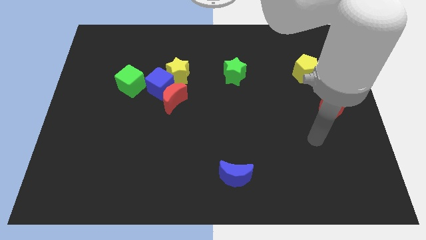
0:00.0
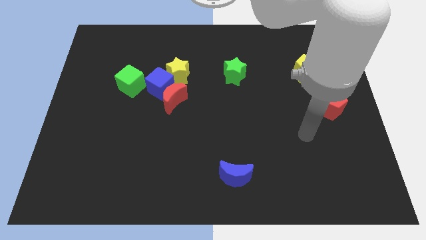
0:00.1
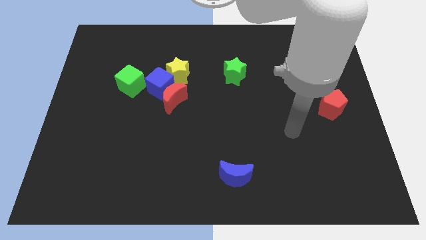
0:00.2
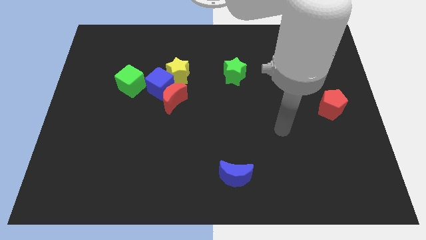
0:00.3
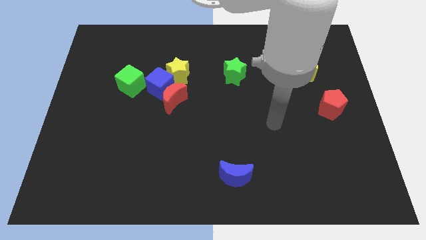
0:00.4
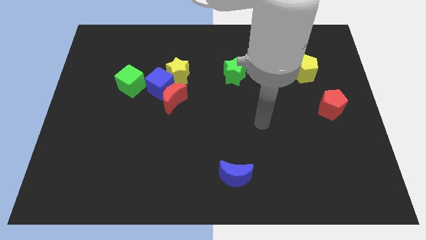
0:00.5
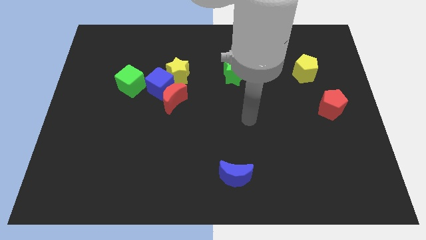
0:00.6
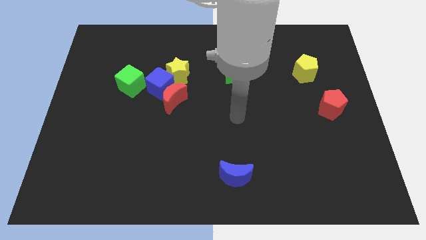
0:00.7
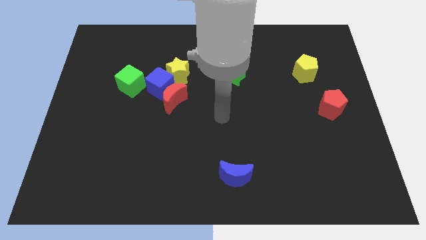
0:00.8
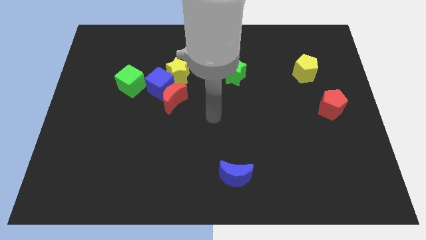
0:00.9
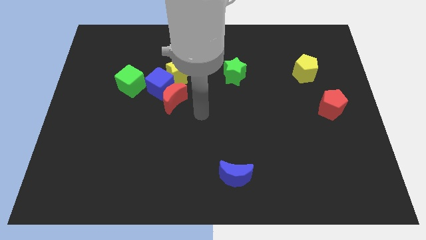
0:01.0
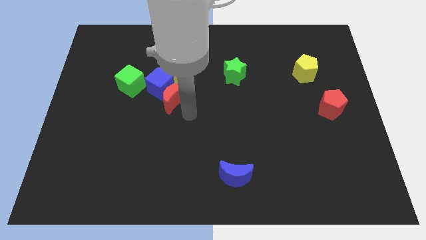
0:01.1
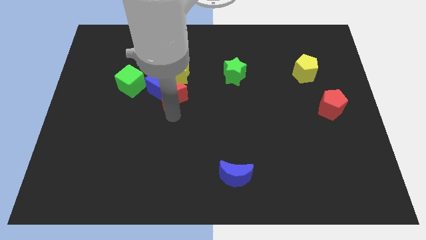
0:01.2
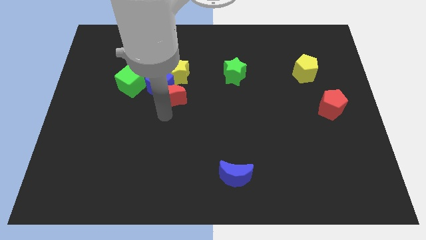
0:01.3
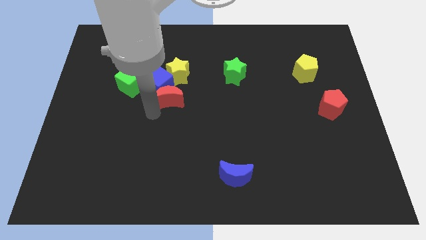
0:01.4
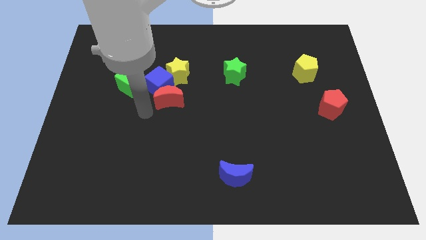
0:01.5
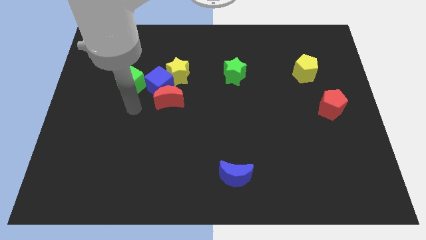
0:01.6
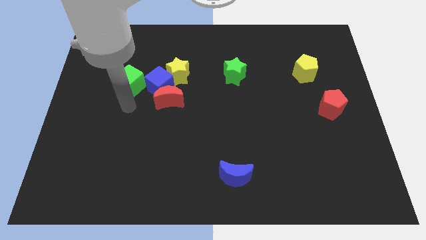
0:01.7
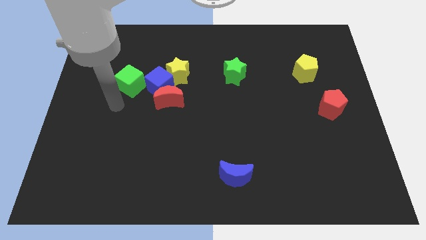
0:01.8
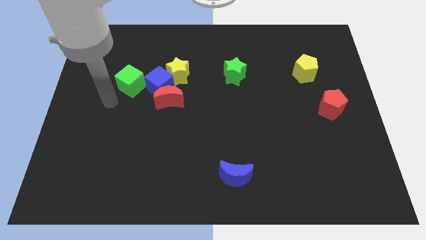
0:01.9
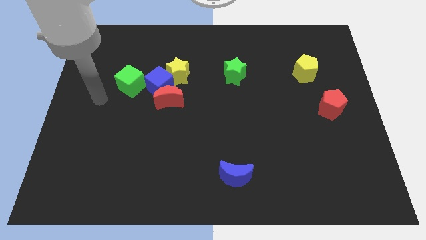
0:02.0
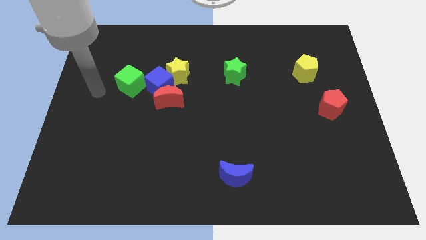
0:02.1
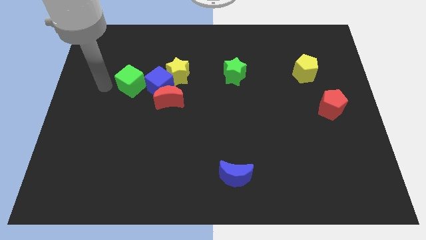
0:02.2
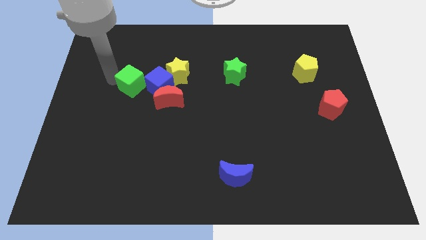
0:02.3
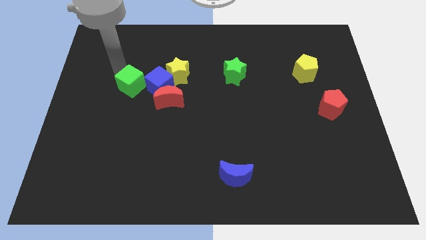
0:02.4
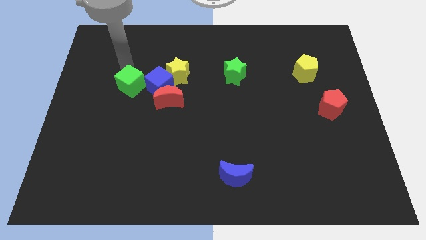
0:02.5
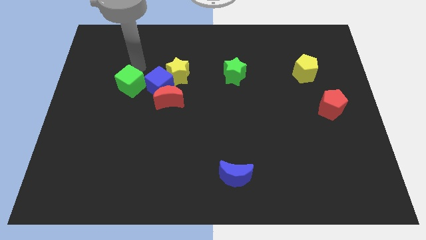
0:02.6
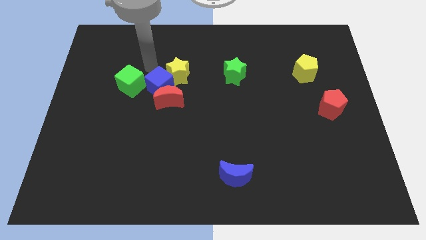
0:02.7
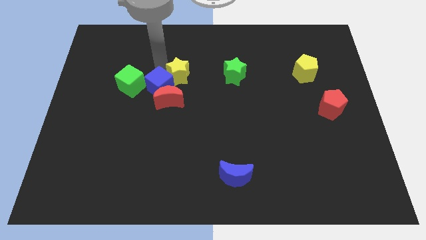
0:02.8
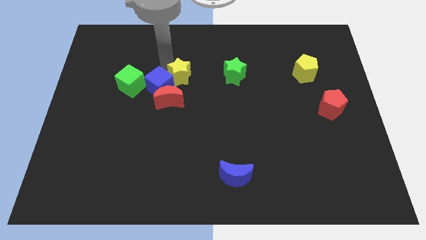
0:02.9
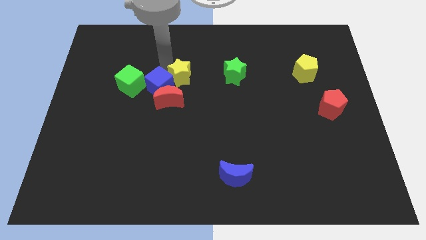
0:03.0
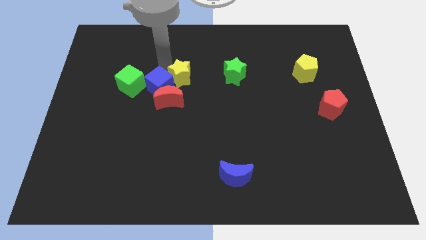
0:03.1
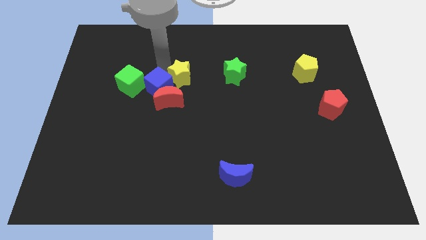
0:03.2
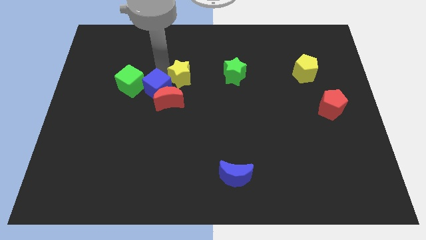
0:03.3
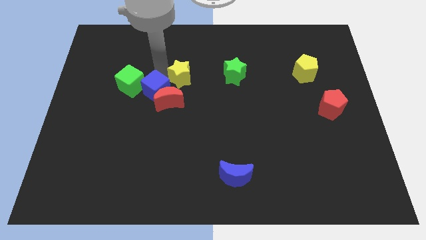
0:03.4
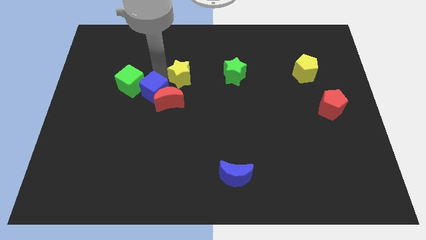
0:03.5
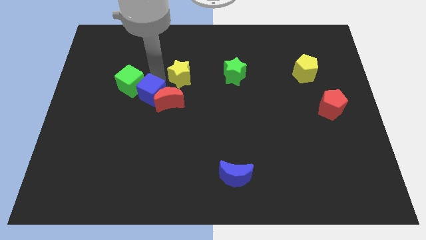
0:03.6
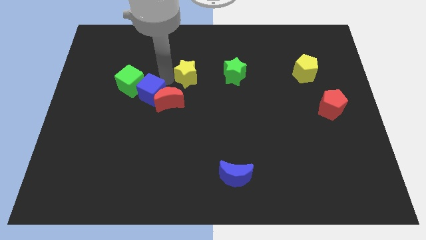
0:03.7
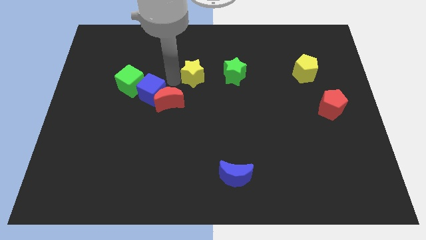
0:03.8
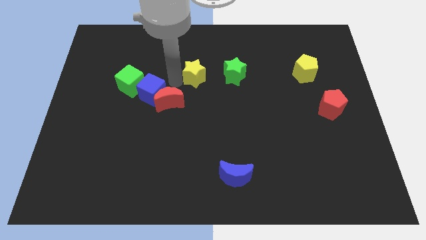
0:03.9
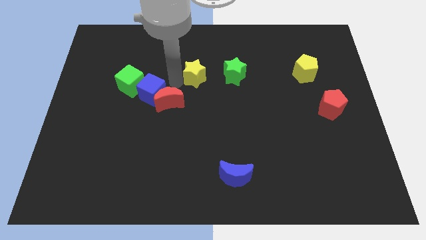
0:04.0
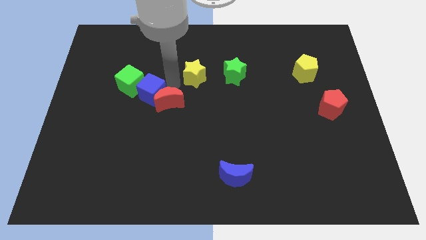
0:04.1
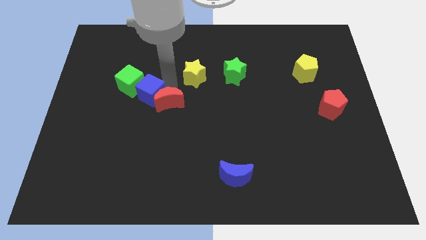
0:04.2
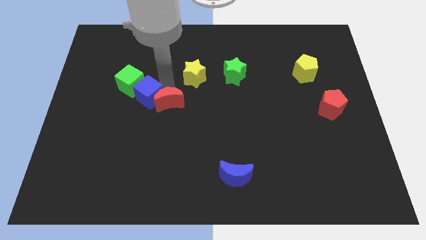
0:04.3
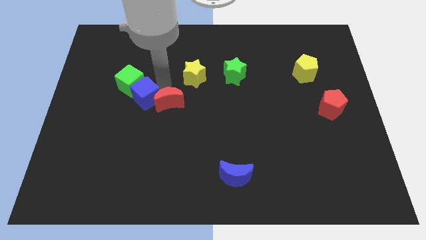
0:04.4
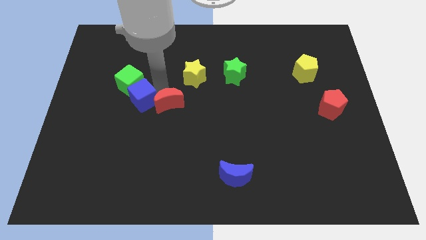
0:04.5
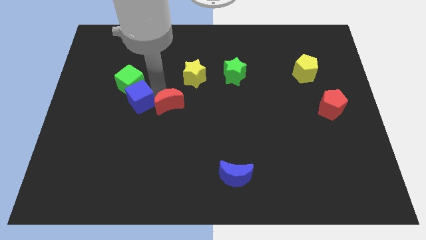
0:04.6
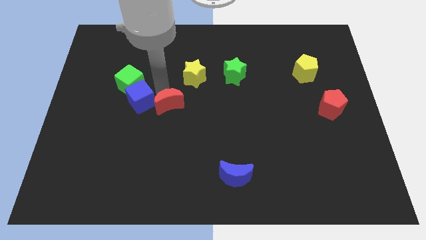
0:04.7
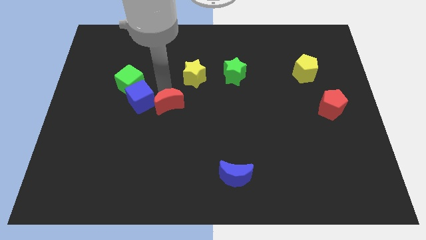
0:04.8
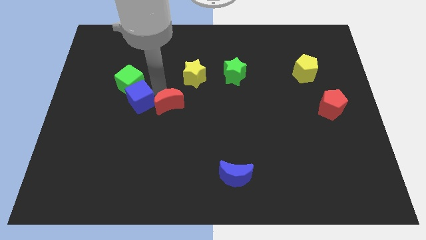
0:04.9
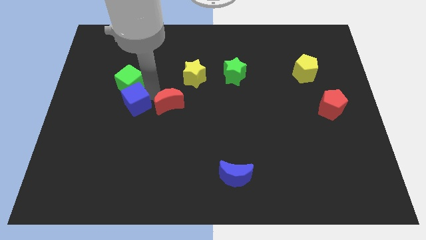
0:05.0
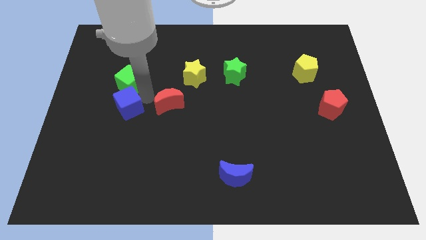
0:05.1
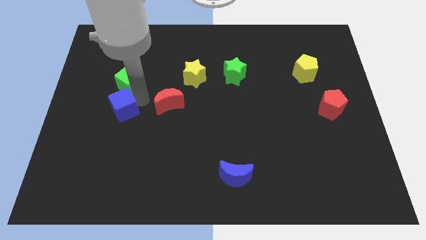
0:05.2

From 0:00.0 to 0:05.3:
separate the blue cube from the group of blocks

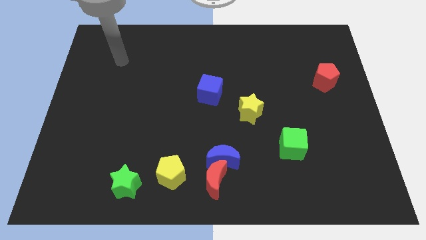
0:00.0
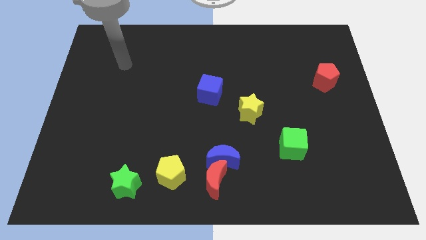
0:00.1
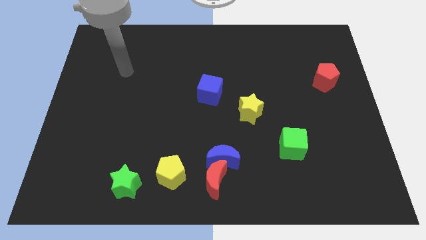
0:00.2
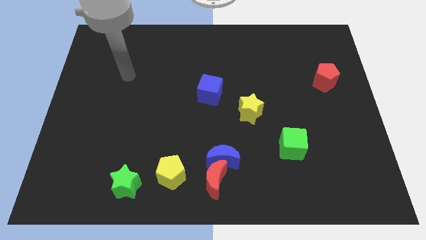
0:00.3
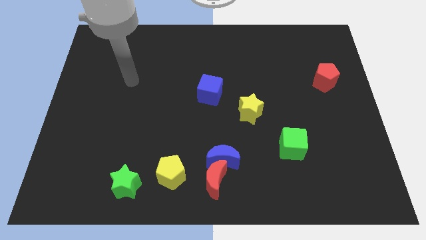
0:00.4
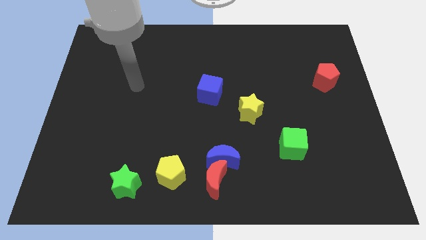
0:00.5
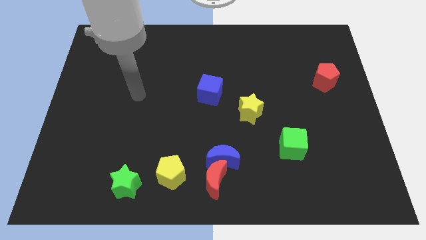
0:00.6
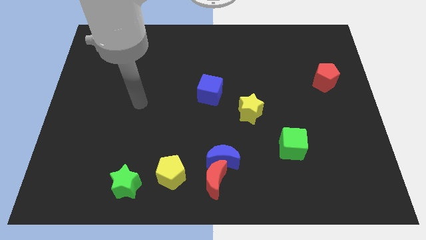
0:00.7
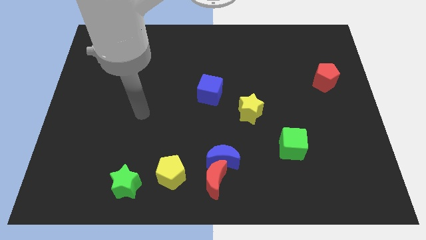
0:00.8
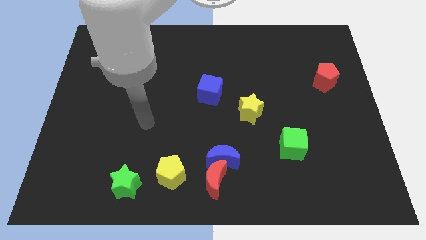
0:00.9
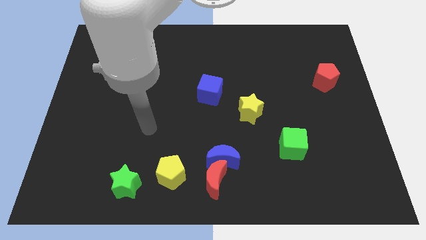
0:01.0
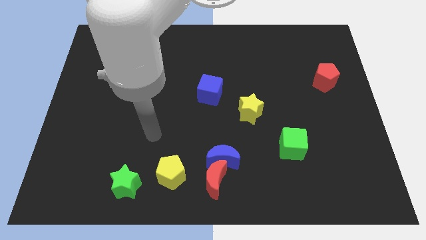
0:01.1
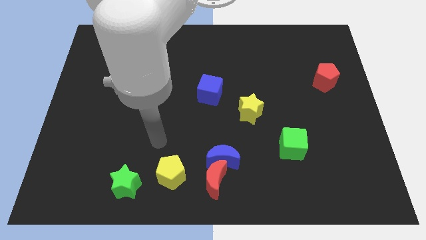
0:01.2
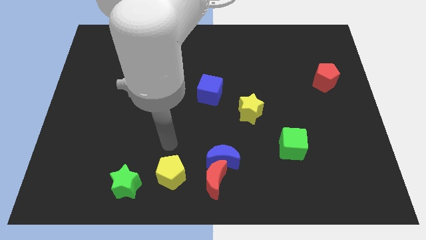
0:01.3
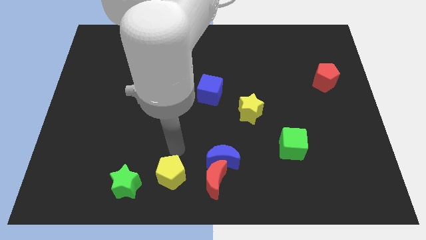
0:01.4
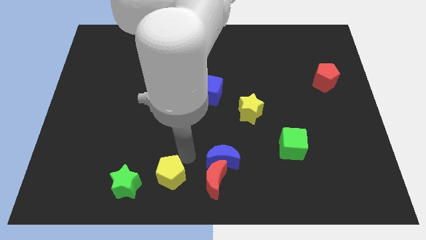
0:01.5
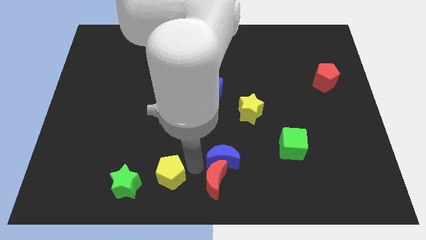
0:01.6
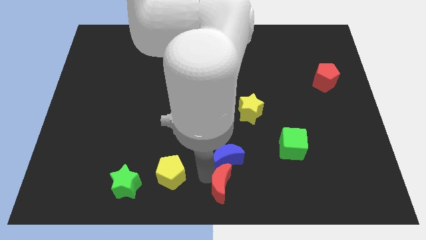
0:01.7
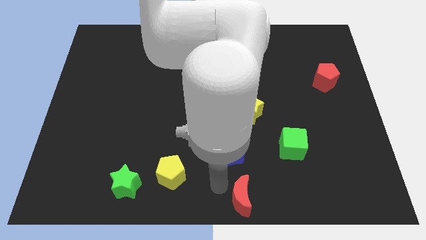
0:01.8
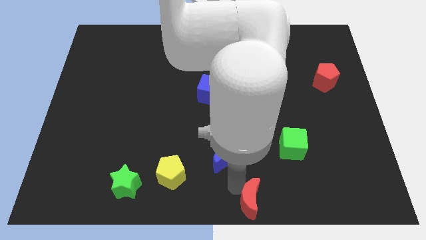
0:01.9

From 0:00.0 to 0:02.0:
move the blue moon away from the red moon

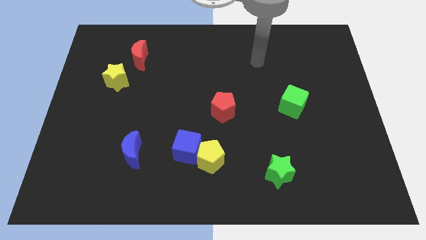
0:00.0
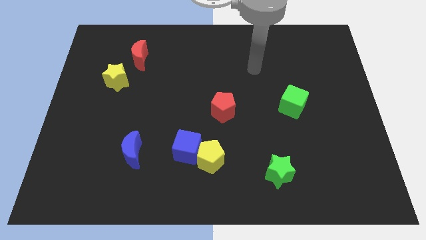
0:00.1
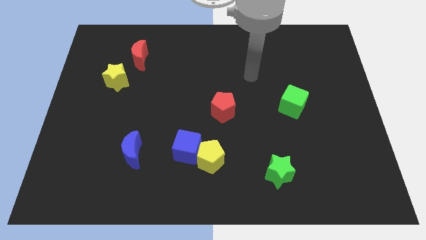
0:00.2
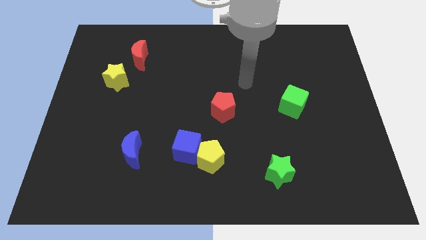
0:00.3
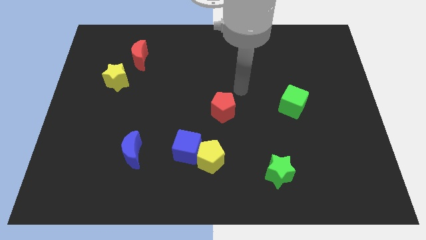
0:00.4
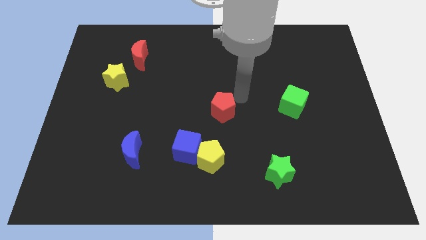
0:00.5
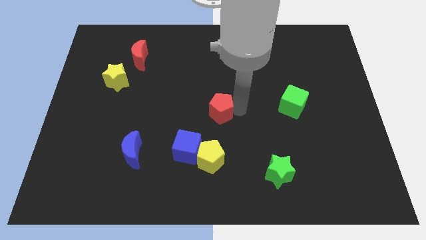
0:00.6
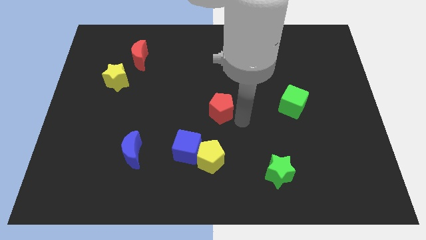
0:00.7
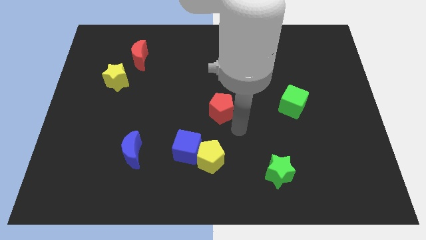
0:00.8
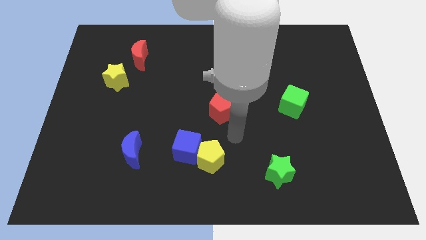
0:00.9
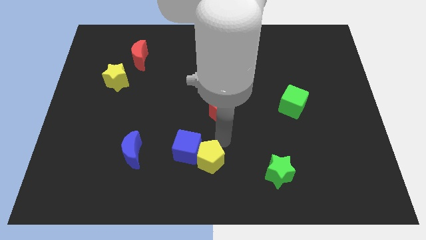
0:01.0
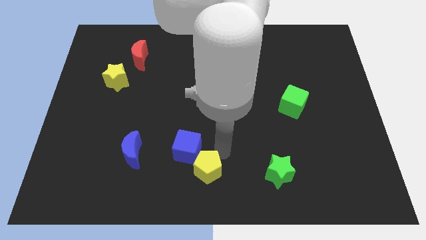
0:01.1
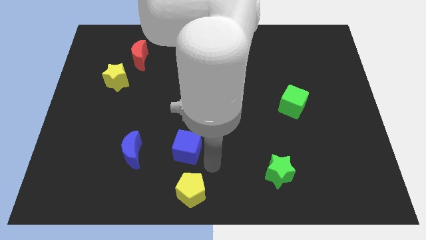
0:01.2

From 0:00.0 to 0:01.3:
move the blue cube away from the yellow pentagon

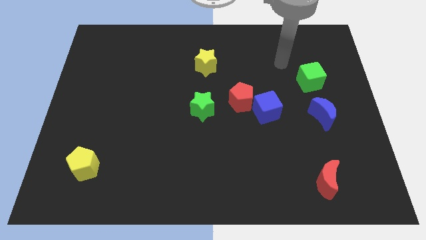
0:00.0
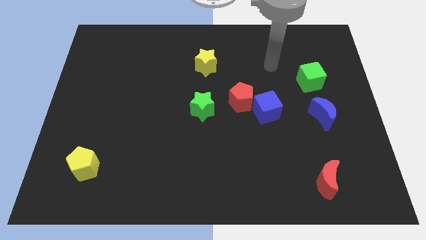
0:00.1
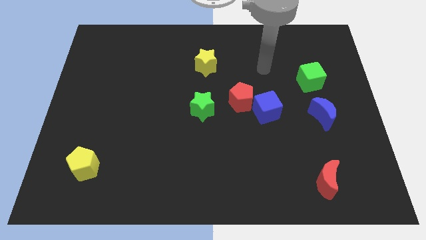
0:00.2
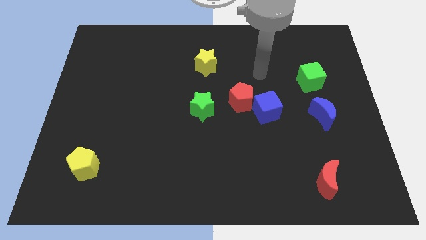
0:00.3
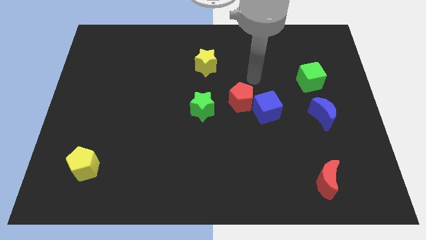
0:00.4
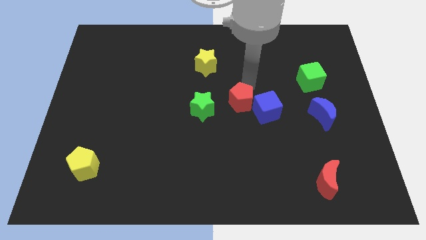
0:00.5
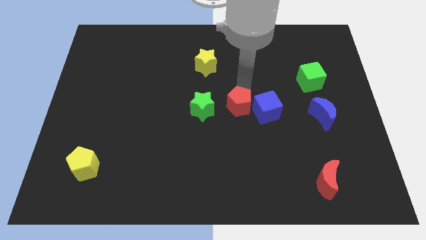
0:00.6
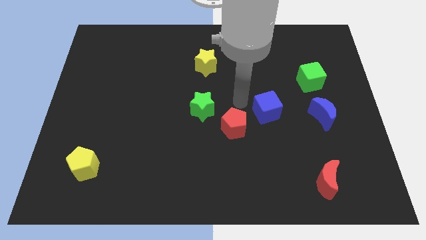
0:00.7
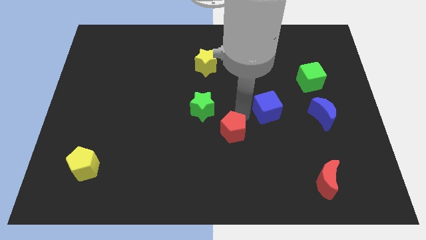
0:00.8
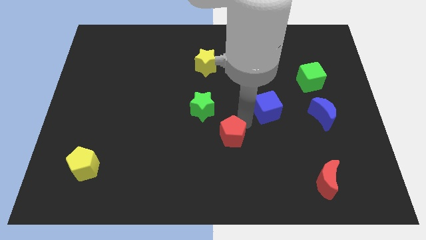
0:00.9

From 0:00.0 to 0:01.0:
pull the blue cube apart from the red pentagon

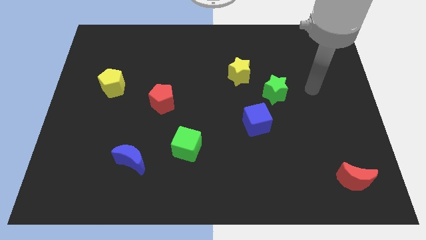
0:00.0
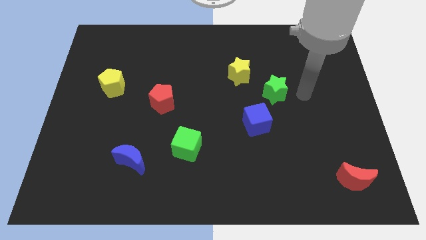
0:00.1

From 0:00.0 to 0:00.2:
separate the blue cube from the green star
